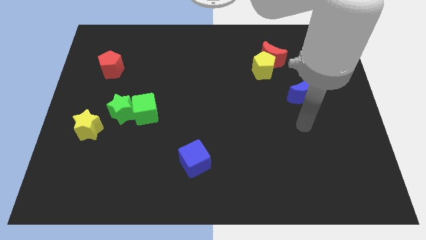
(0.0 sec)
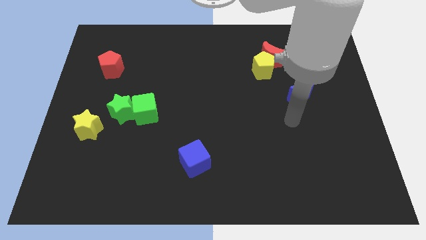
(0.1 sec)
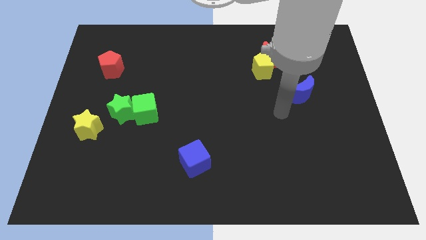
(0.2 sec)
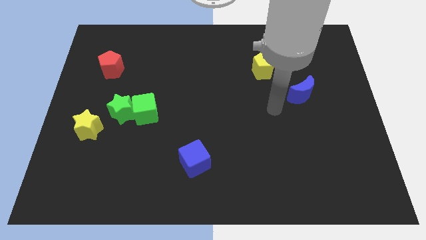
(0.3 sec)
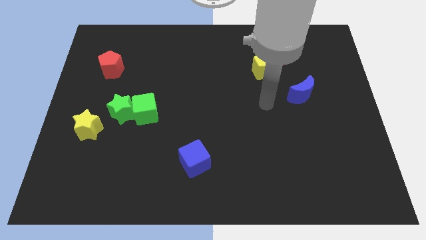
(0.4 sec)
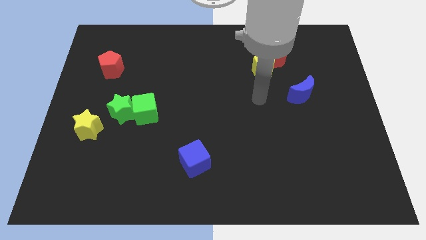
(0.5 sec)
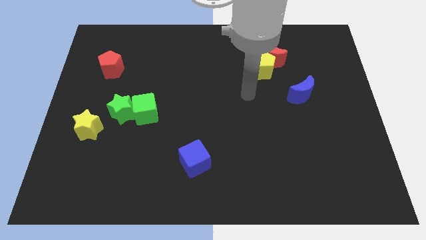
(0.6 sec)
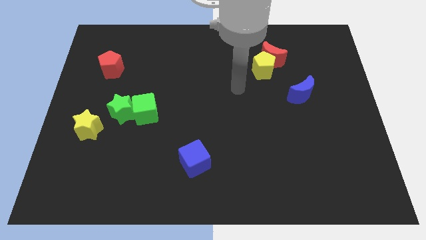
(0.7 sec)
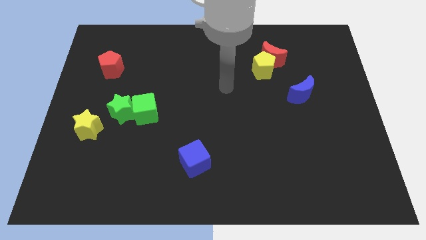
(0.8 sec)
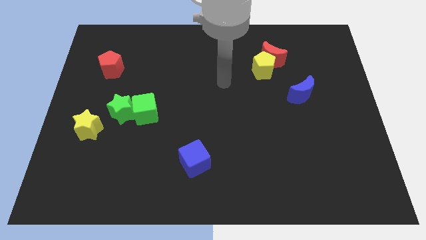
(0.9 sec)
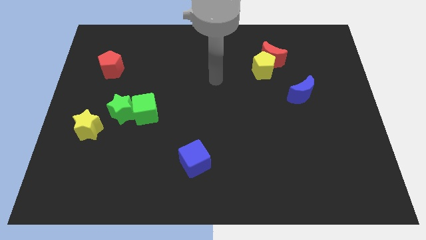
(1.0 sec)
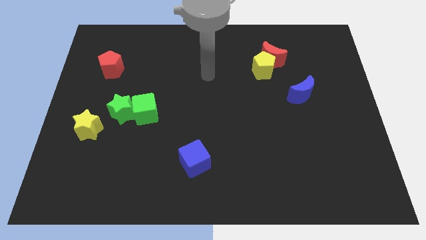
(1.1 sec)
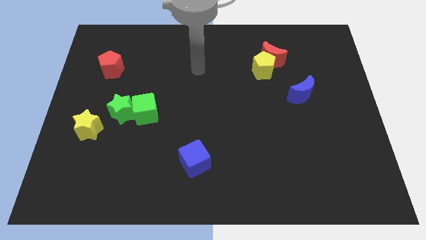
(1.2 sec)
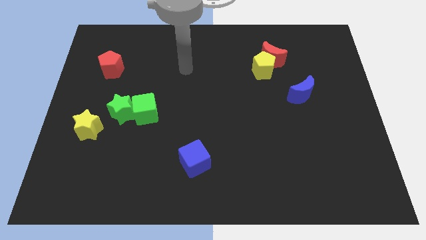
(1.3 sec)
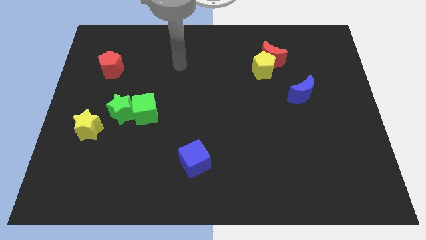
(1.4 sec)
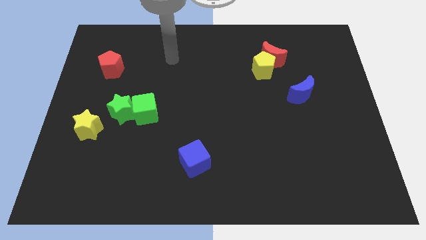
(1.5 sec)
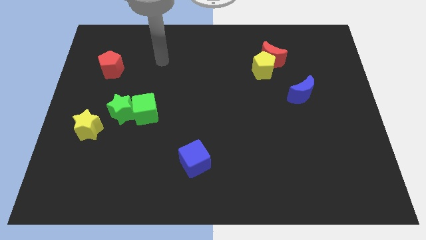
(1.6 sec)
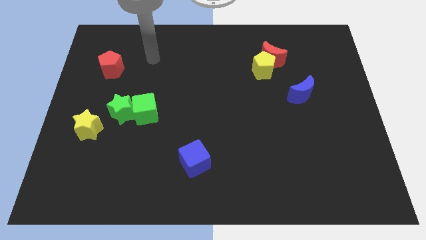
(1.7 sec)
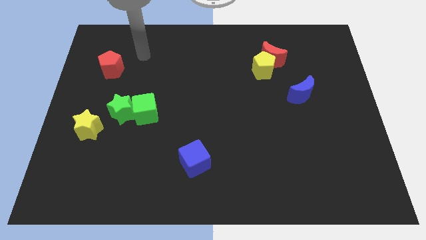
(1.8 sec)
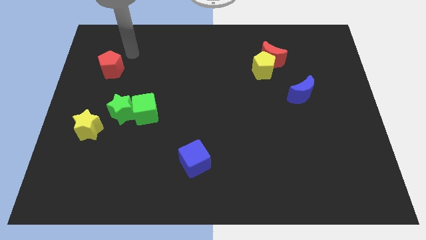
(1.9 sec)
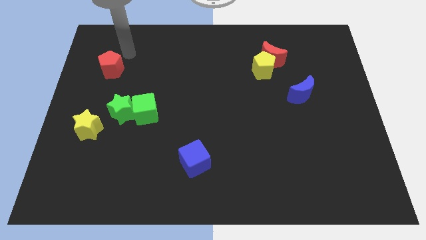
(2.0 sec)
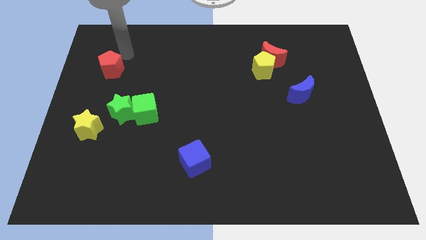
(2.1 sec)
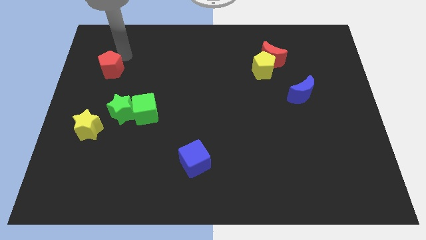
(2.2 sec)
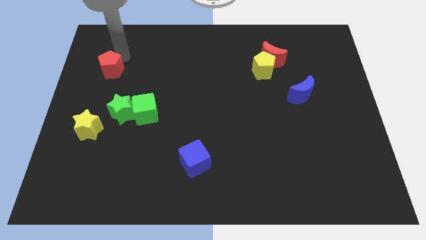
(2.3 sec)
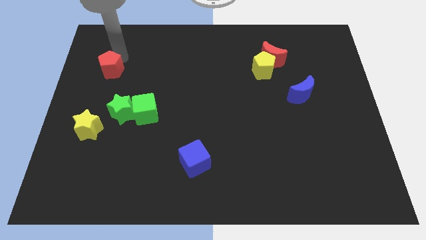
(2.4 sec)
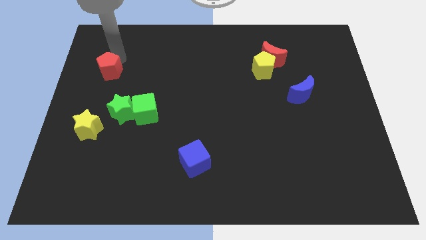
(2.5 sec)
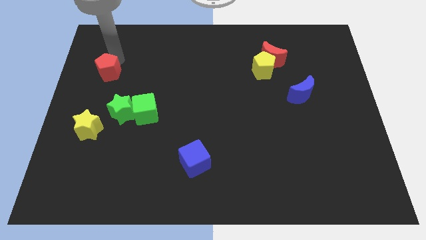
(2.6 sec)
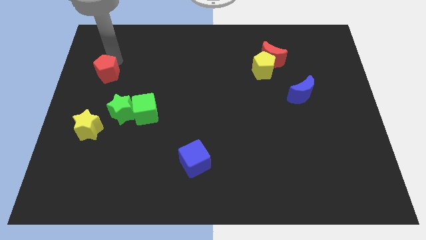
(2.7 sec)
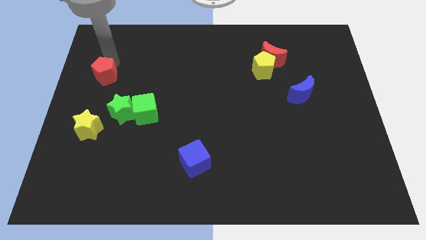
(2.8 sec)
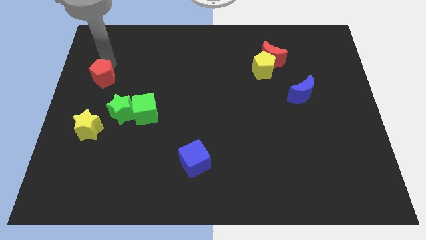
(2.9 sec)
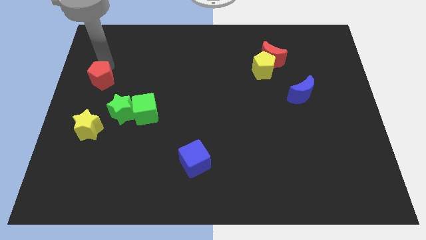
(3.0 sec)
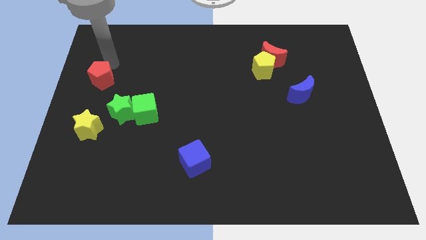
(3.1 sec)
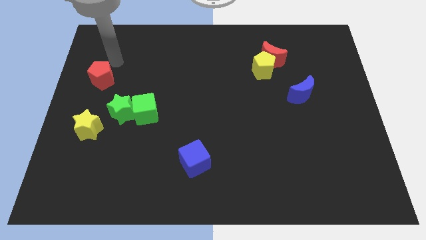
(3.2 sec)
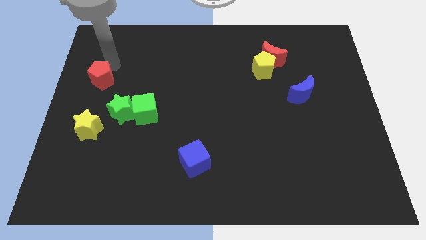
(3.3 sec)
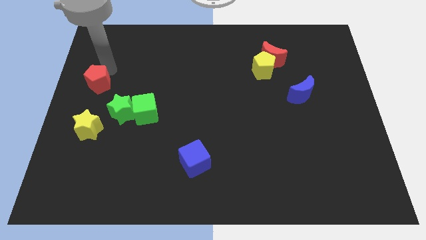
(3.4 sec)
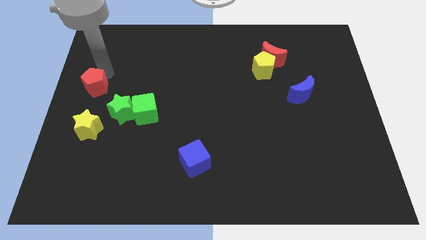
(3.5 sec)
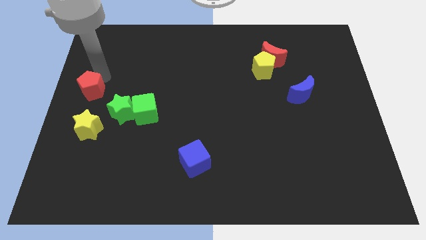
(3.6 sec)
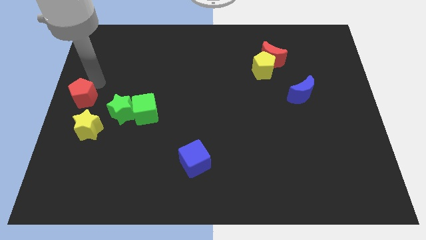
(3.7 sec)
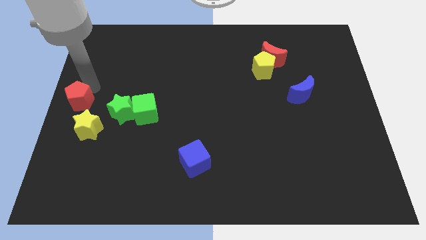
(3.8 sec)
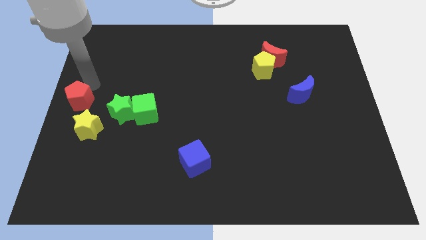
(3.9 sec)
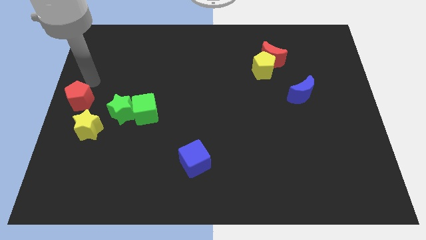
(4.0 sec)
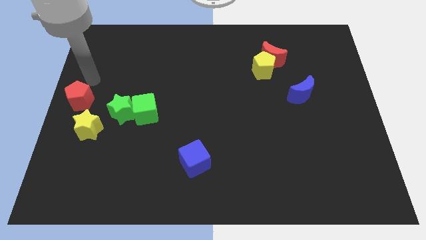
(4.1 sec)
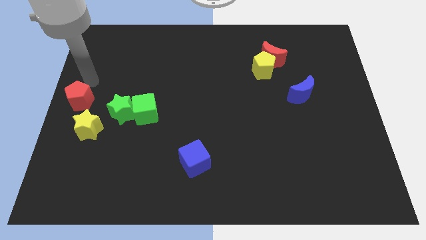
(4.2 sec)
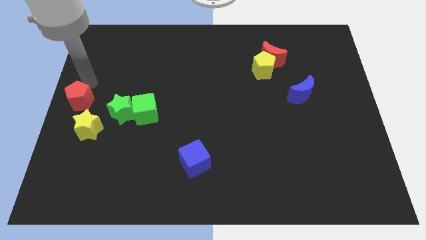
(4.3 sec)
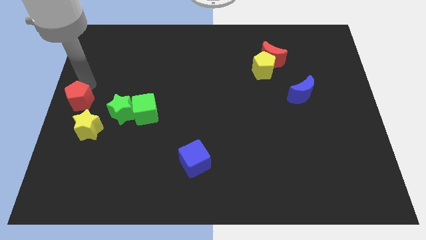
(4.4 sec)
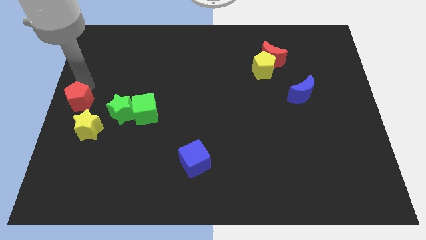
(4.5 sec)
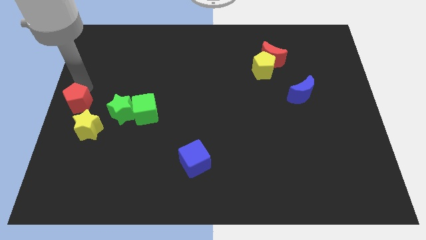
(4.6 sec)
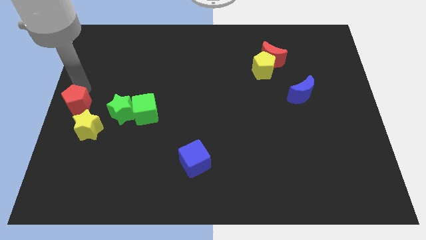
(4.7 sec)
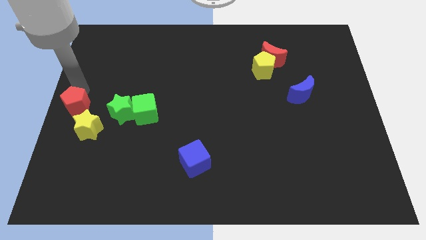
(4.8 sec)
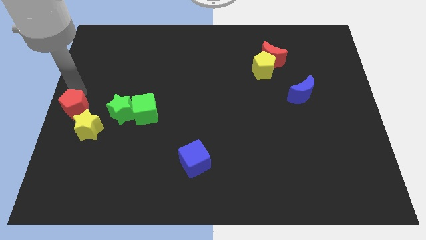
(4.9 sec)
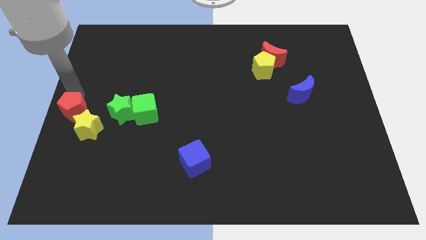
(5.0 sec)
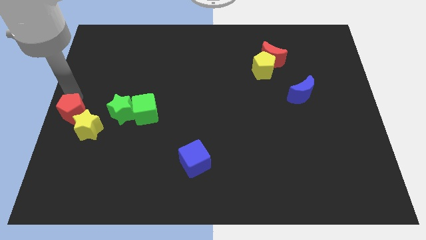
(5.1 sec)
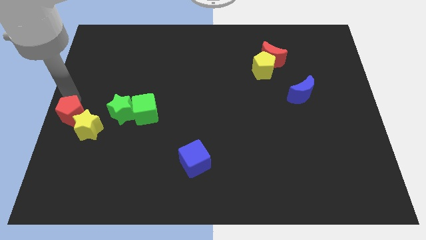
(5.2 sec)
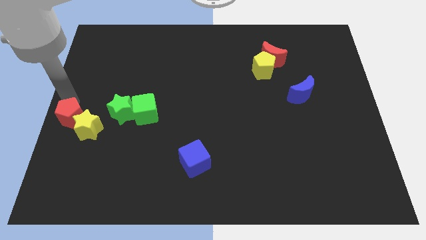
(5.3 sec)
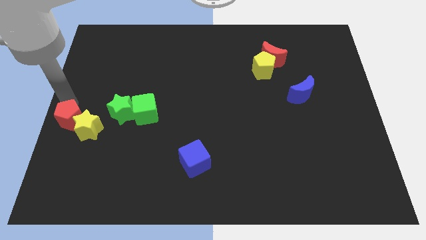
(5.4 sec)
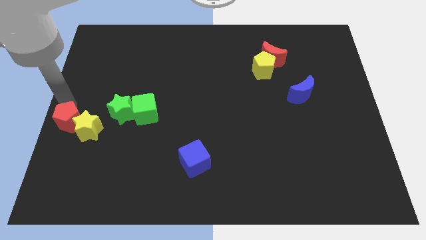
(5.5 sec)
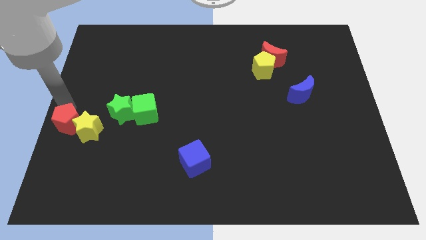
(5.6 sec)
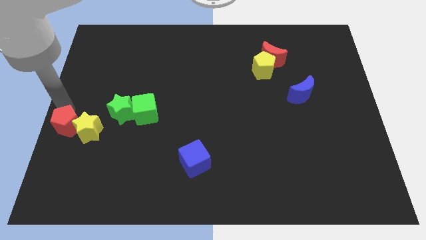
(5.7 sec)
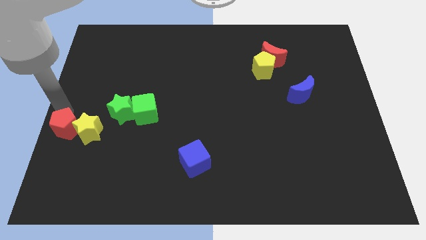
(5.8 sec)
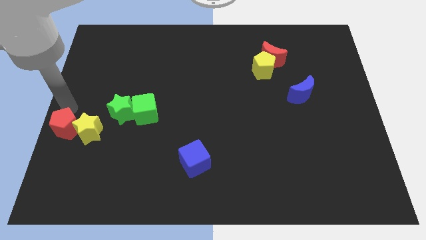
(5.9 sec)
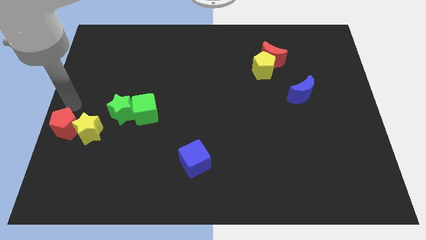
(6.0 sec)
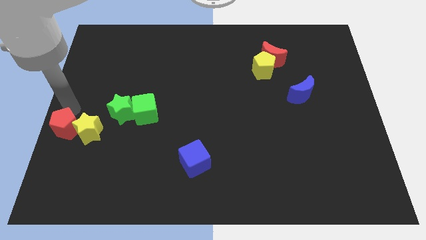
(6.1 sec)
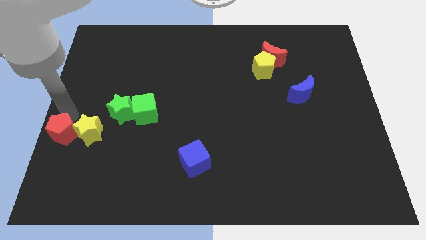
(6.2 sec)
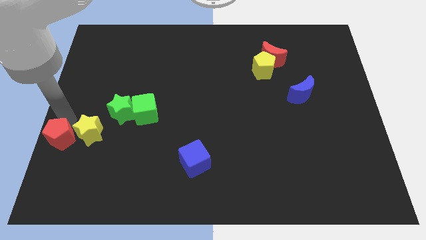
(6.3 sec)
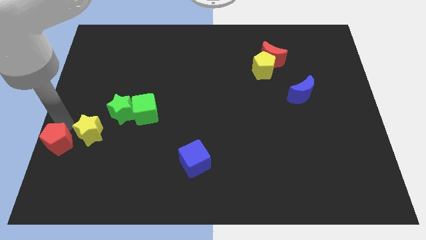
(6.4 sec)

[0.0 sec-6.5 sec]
slide the red pentagon downwards

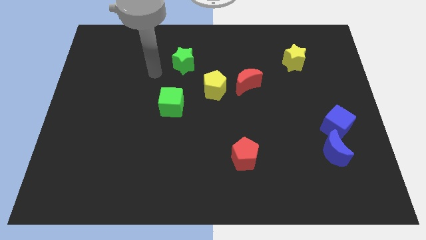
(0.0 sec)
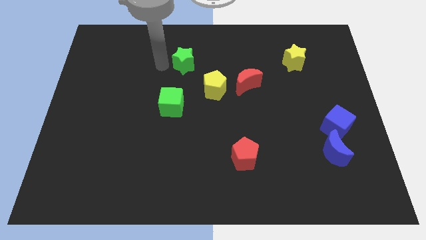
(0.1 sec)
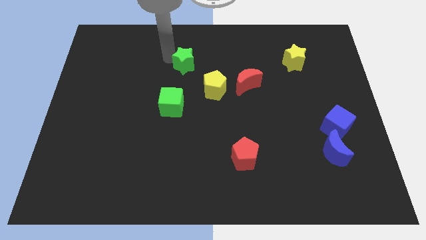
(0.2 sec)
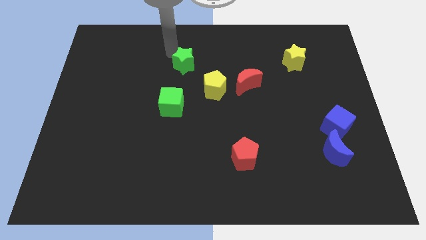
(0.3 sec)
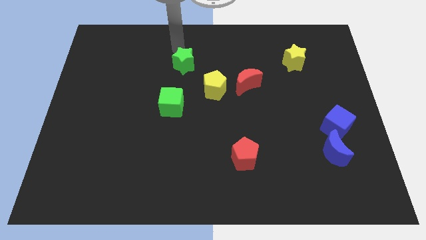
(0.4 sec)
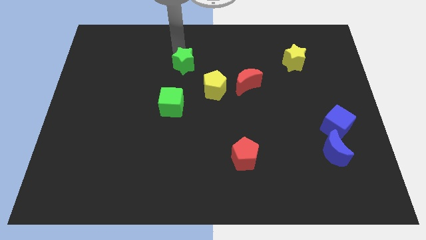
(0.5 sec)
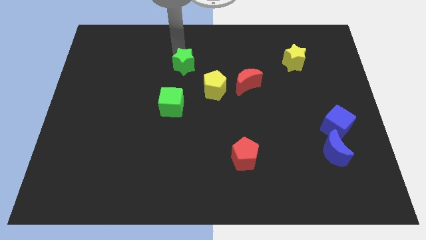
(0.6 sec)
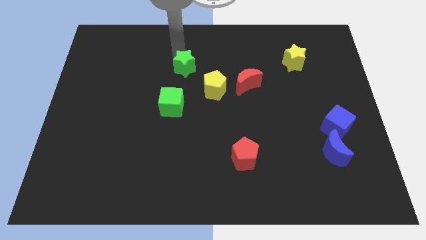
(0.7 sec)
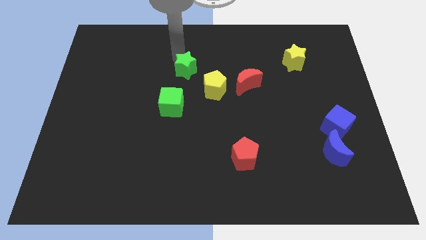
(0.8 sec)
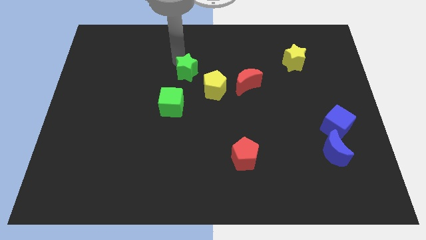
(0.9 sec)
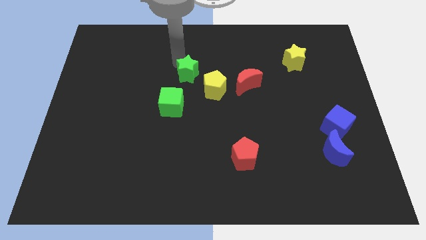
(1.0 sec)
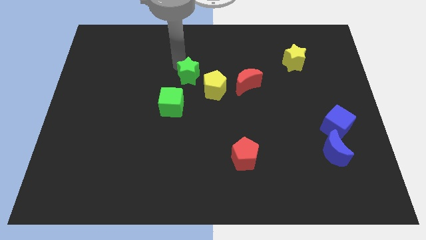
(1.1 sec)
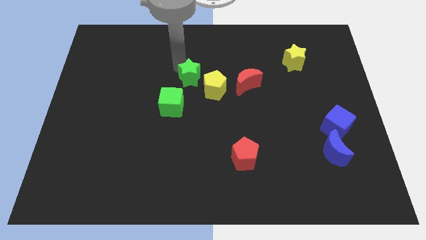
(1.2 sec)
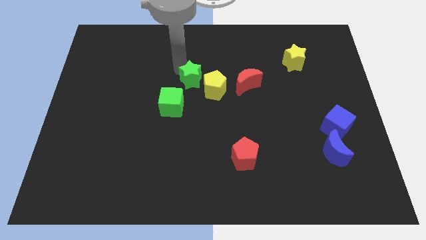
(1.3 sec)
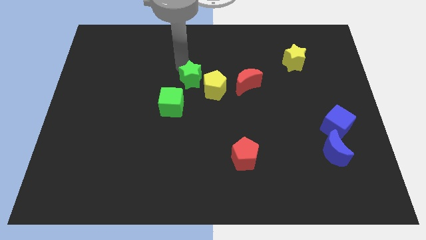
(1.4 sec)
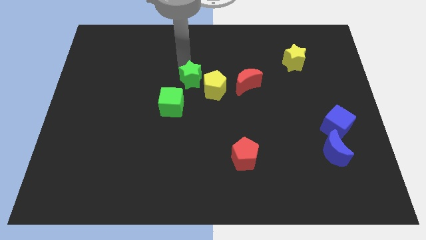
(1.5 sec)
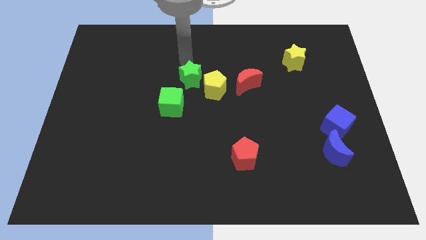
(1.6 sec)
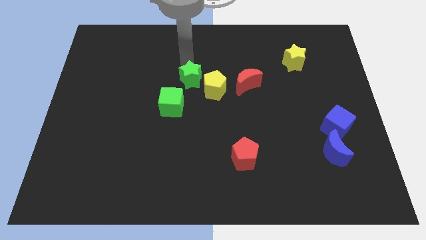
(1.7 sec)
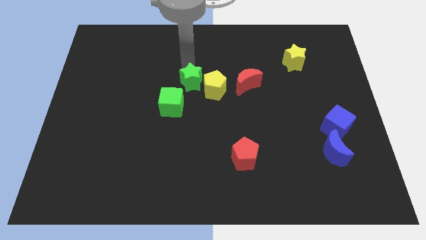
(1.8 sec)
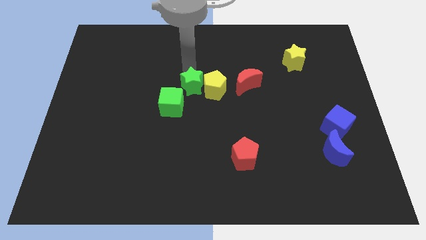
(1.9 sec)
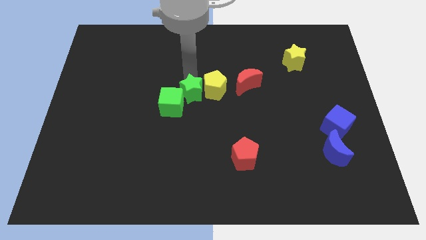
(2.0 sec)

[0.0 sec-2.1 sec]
move the green star a little bit diagonally down and right
